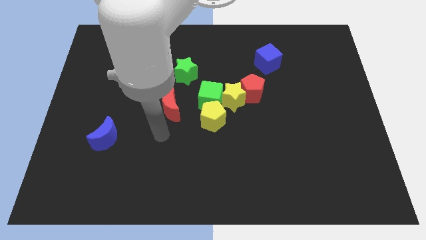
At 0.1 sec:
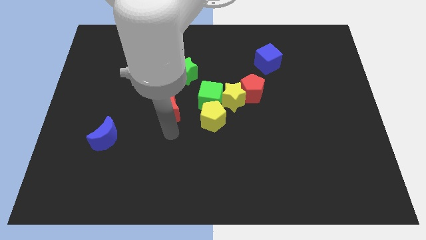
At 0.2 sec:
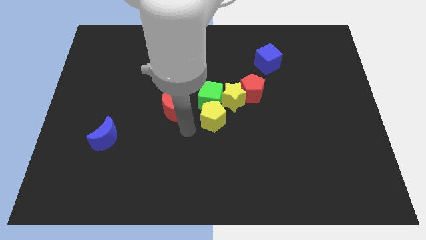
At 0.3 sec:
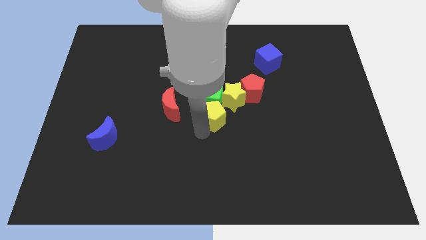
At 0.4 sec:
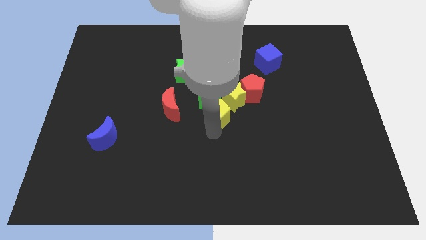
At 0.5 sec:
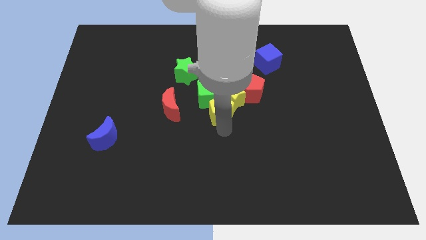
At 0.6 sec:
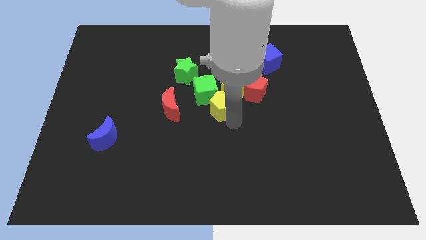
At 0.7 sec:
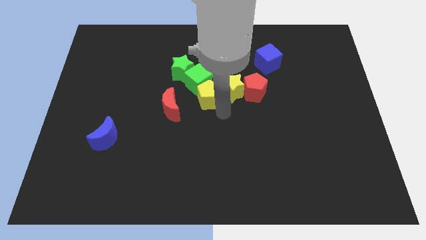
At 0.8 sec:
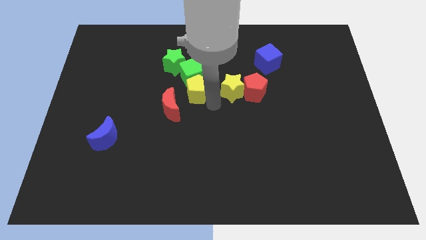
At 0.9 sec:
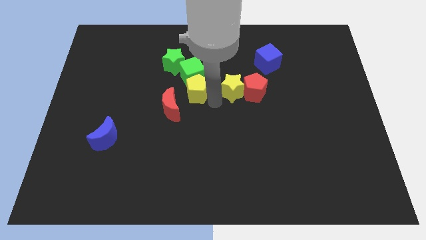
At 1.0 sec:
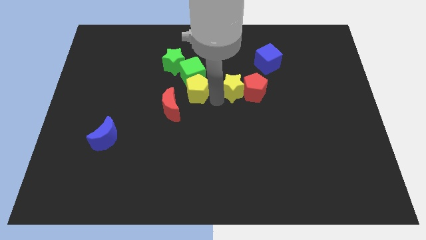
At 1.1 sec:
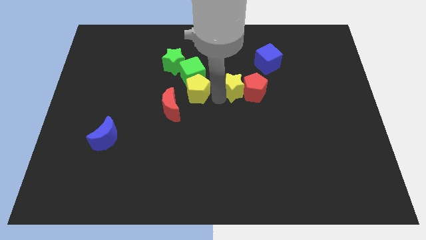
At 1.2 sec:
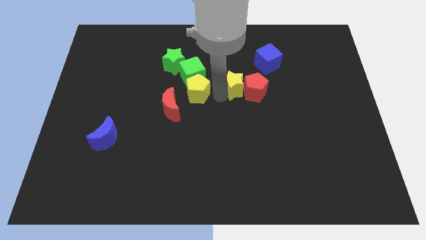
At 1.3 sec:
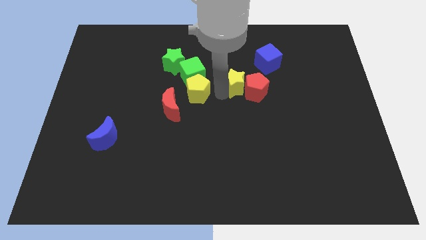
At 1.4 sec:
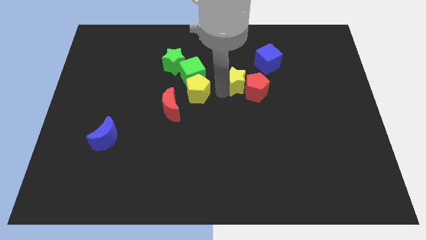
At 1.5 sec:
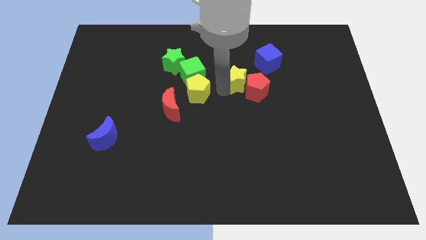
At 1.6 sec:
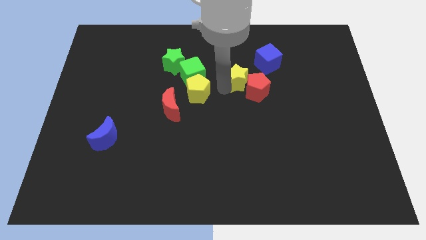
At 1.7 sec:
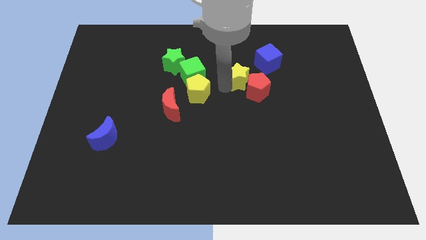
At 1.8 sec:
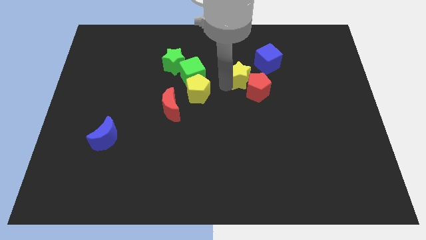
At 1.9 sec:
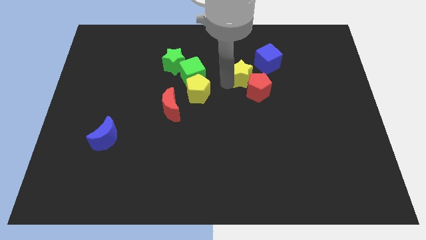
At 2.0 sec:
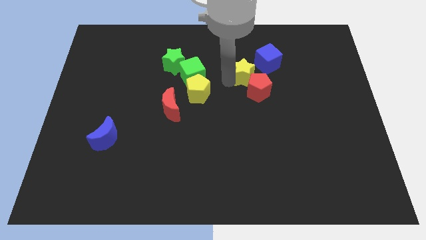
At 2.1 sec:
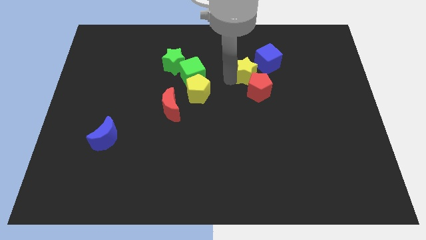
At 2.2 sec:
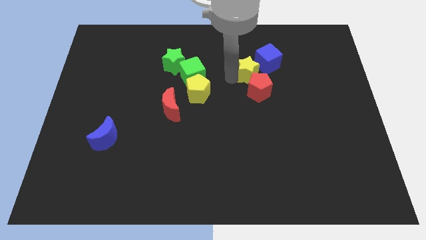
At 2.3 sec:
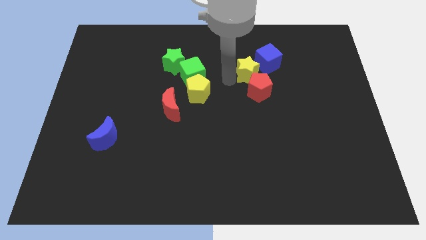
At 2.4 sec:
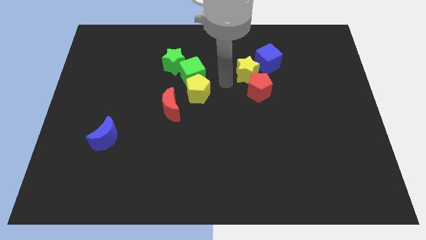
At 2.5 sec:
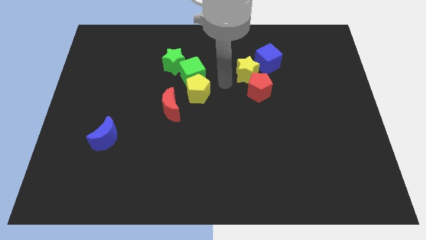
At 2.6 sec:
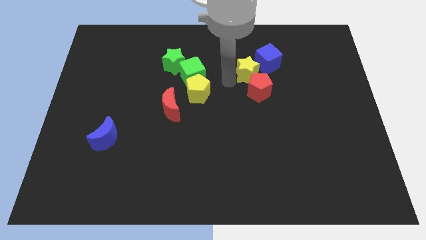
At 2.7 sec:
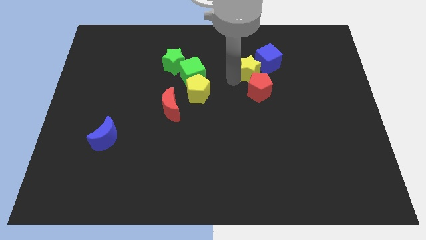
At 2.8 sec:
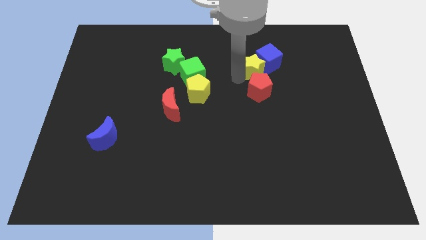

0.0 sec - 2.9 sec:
pull the yellow star apart from the red pentagon, green cube, and yellow pentagon

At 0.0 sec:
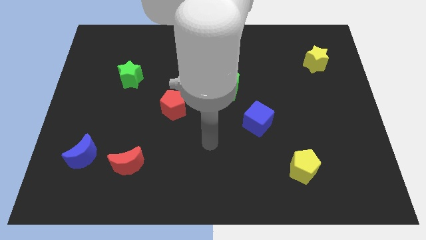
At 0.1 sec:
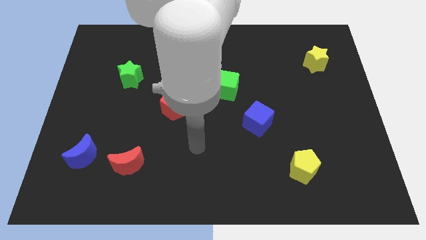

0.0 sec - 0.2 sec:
separate the red moon from the blue moon

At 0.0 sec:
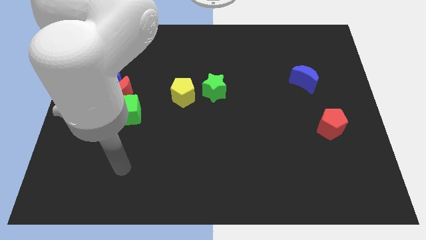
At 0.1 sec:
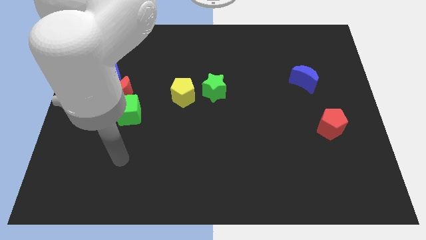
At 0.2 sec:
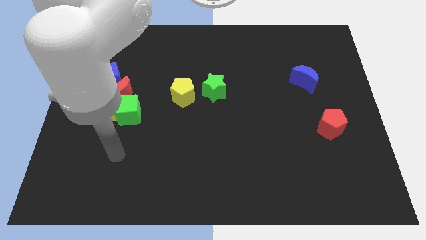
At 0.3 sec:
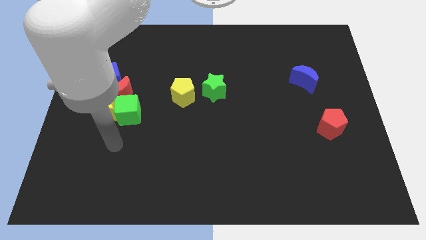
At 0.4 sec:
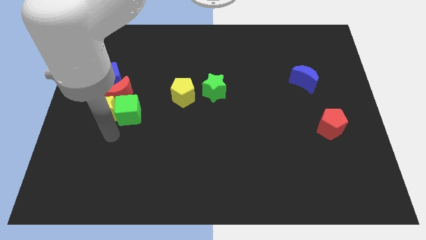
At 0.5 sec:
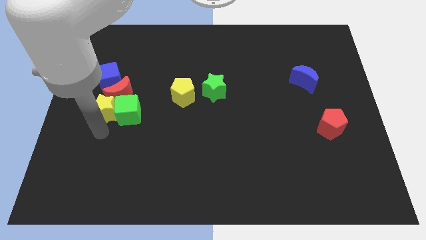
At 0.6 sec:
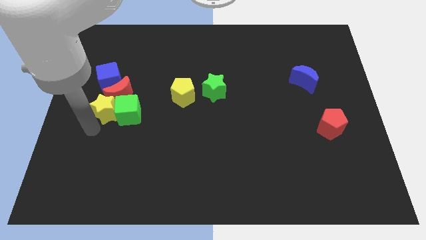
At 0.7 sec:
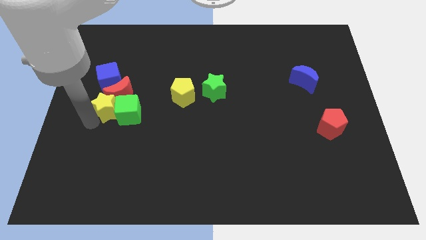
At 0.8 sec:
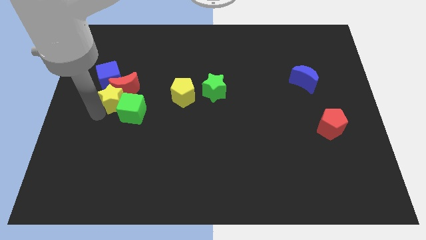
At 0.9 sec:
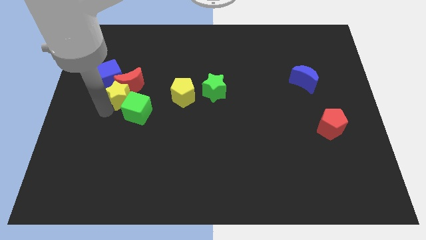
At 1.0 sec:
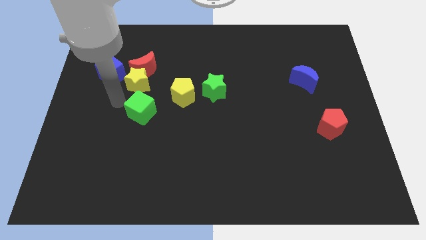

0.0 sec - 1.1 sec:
move the green cube away from the yellow star and red moon

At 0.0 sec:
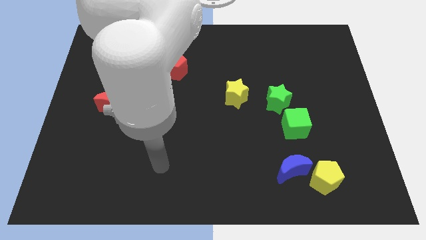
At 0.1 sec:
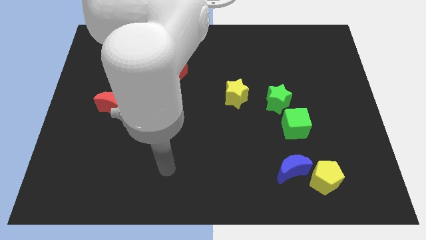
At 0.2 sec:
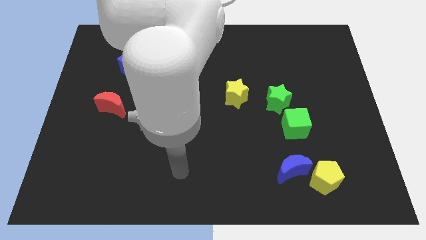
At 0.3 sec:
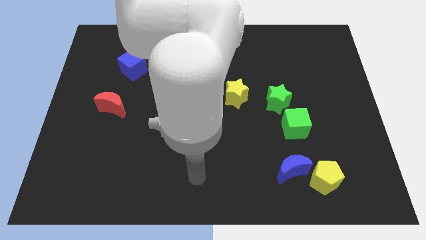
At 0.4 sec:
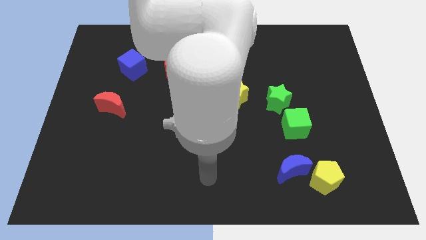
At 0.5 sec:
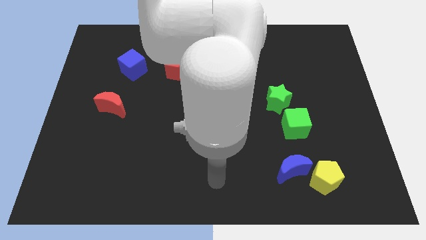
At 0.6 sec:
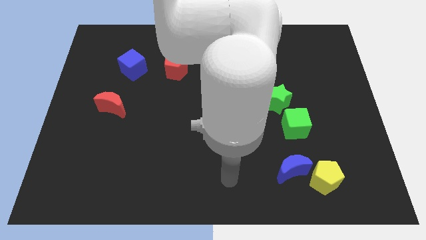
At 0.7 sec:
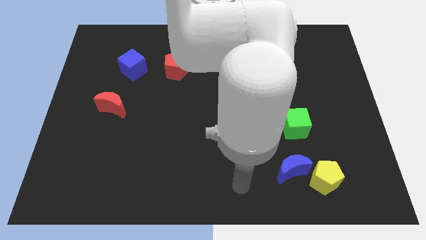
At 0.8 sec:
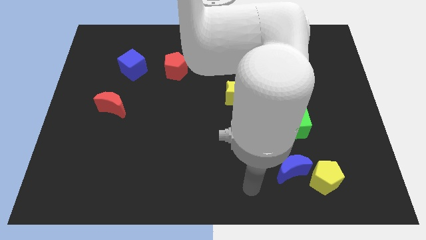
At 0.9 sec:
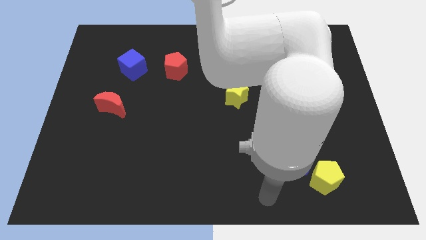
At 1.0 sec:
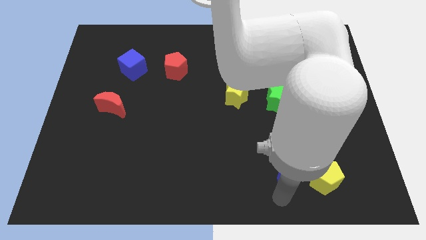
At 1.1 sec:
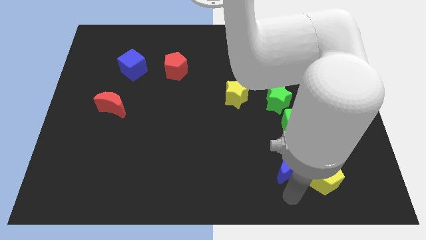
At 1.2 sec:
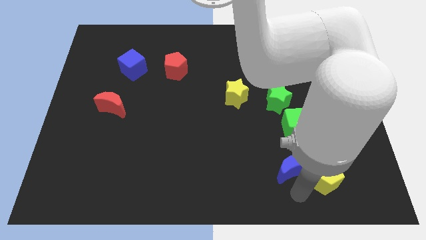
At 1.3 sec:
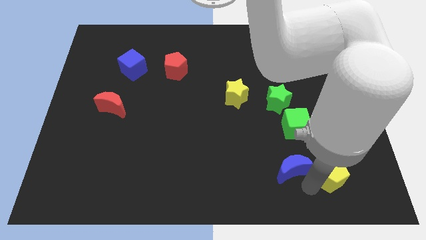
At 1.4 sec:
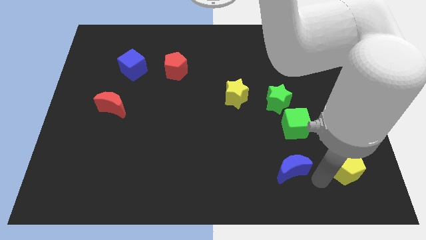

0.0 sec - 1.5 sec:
move the blue moon away from the yellow pentagon

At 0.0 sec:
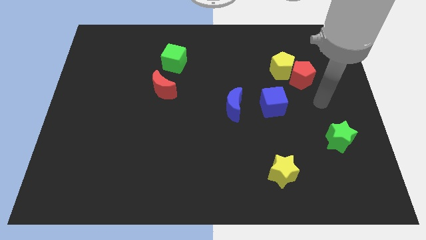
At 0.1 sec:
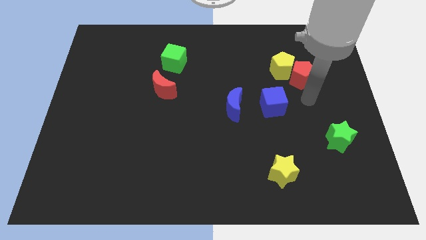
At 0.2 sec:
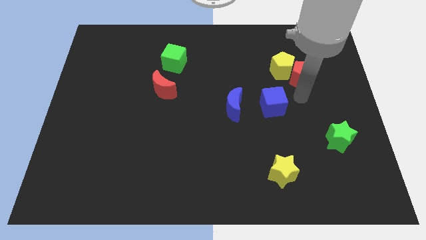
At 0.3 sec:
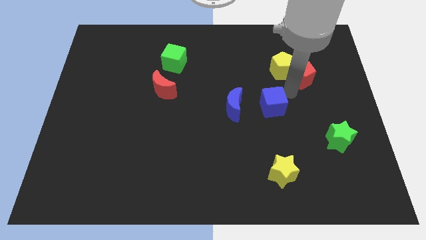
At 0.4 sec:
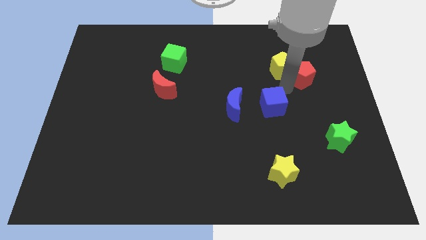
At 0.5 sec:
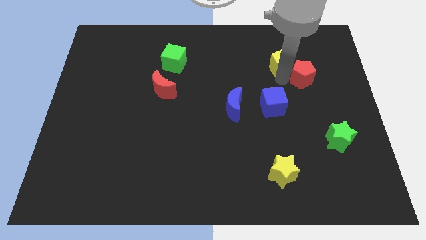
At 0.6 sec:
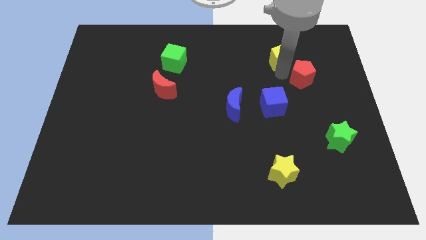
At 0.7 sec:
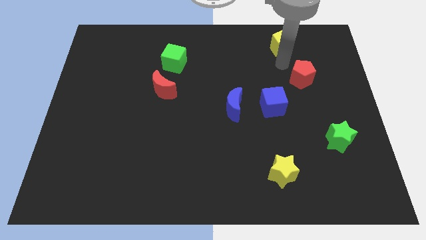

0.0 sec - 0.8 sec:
separate the red pentagon from the yellow pentagon

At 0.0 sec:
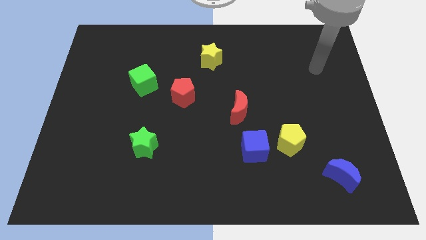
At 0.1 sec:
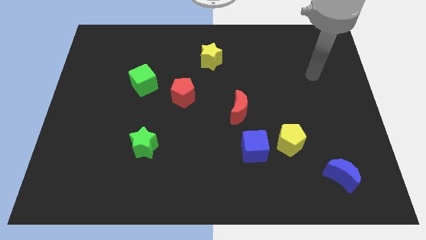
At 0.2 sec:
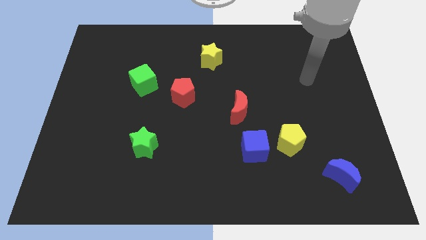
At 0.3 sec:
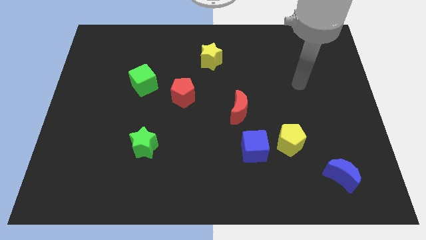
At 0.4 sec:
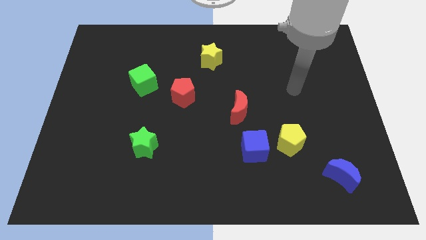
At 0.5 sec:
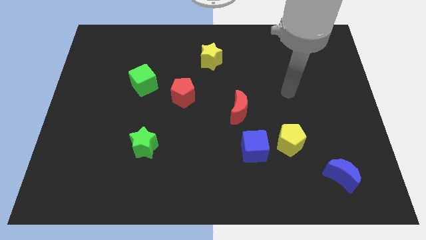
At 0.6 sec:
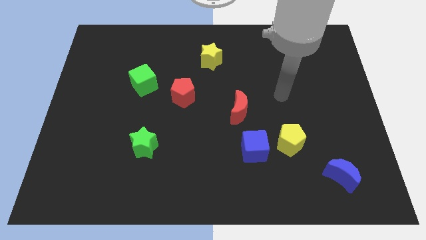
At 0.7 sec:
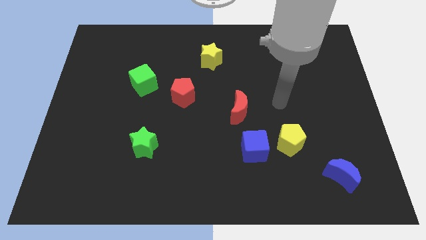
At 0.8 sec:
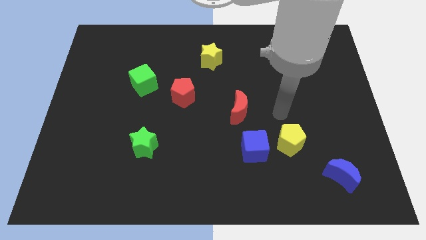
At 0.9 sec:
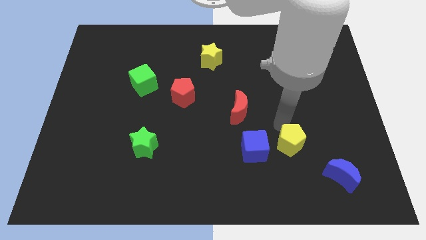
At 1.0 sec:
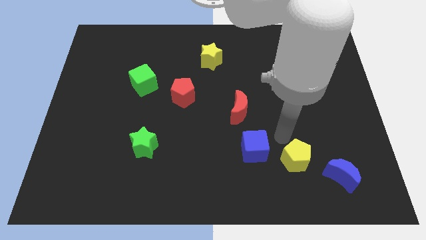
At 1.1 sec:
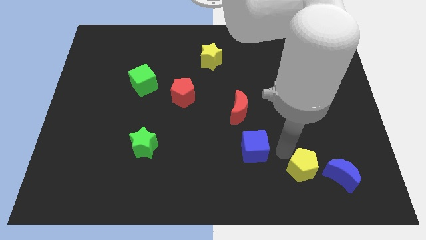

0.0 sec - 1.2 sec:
pull the blue cube apart from the yellow pentagon

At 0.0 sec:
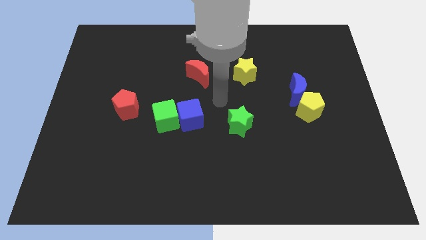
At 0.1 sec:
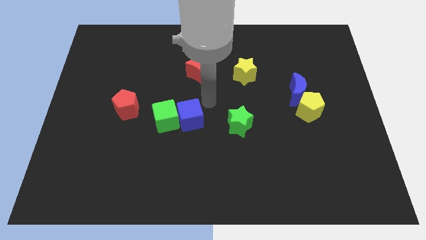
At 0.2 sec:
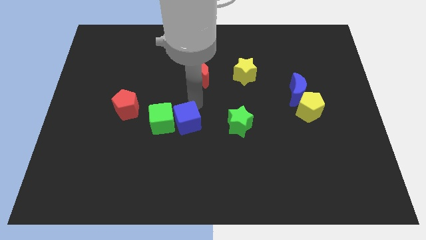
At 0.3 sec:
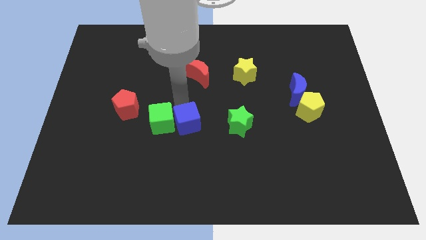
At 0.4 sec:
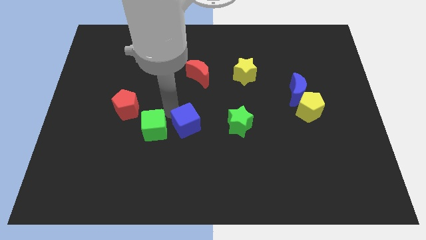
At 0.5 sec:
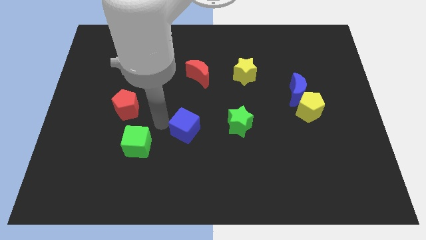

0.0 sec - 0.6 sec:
pull the blue cube apart from the green cube

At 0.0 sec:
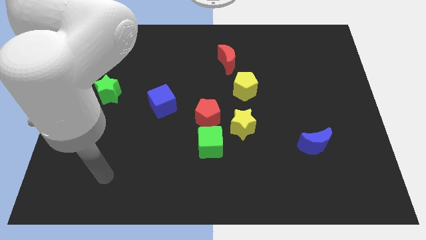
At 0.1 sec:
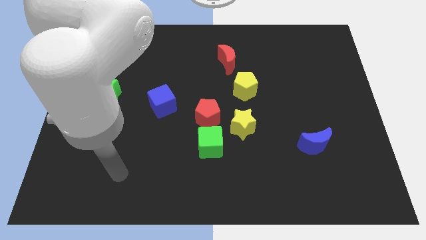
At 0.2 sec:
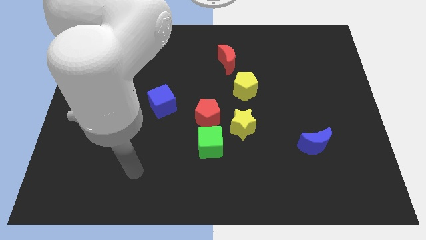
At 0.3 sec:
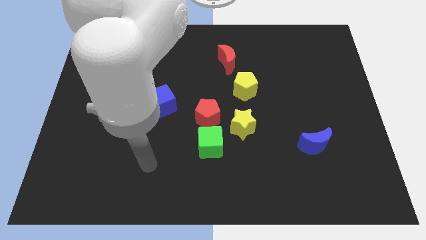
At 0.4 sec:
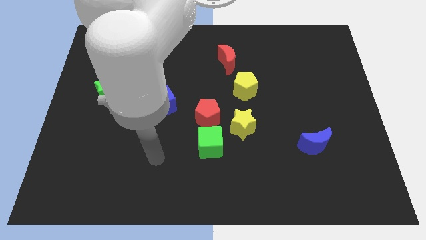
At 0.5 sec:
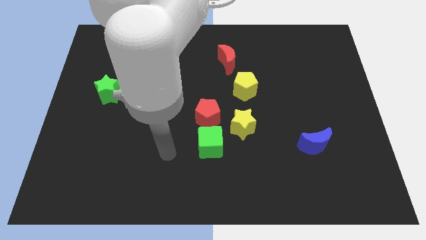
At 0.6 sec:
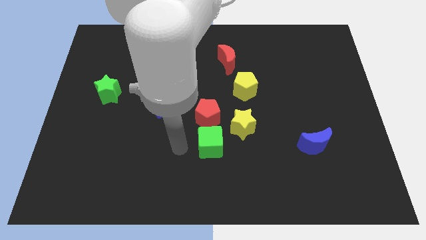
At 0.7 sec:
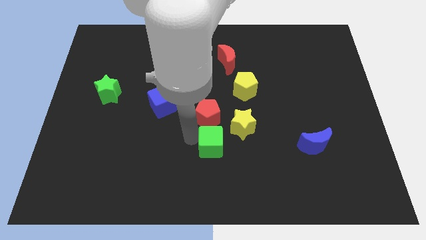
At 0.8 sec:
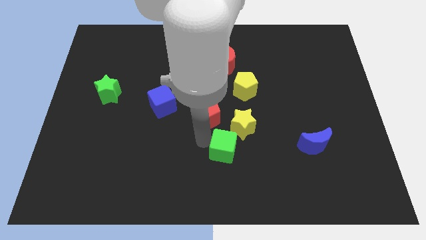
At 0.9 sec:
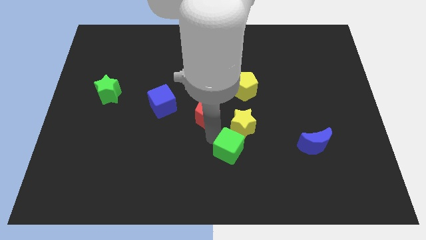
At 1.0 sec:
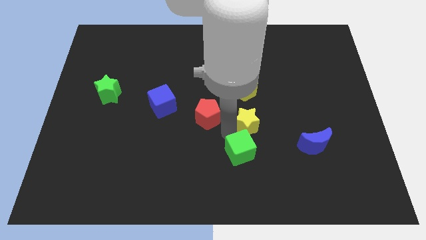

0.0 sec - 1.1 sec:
separate the red pentagon from the green cube and yellow star
